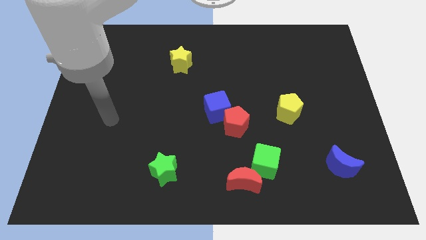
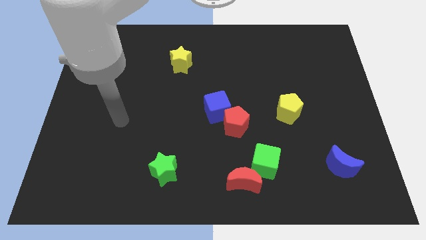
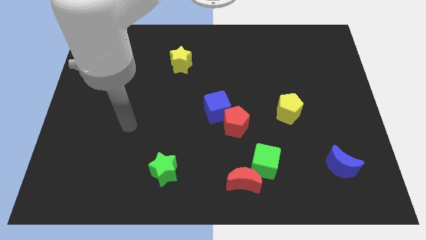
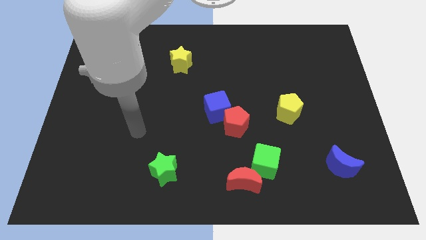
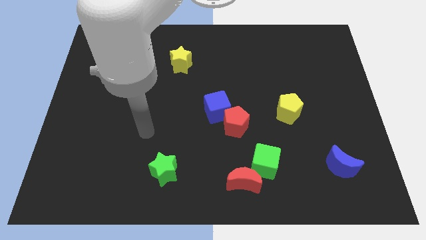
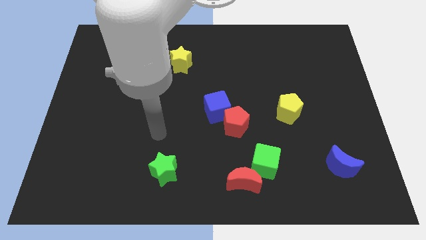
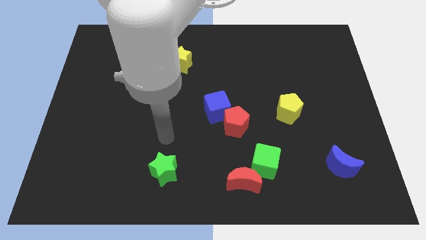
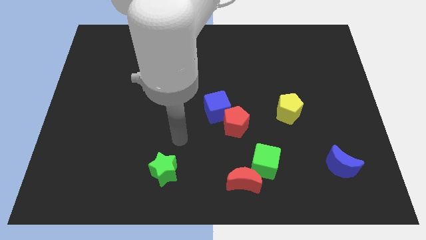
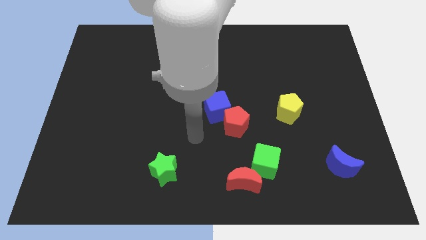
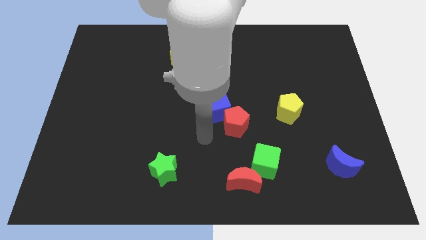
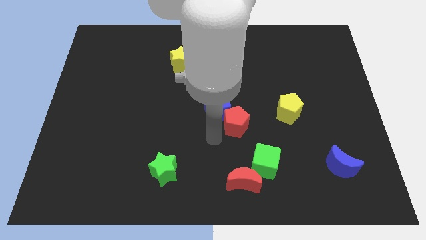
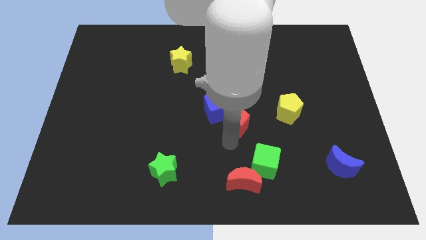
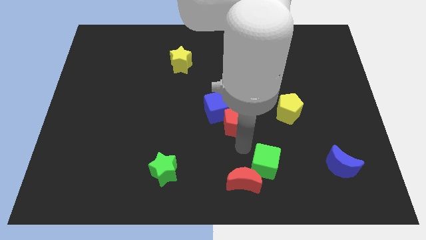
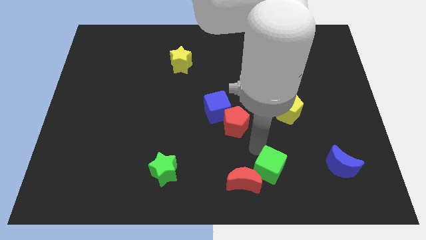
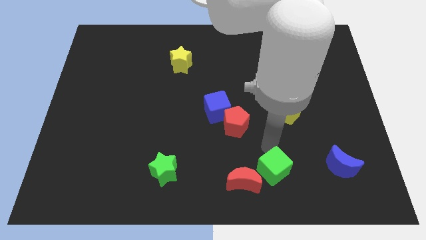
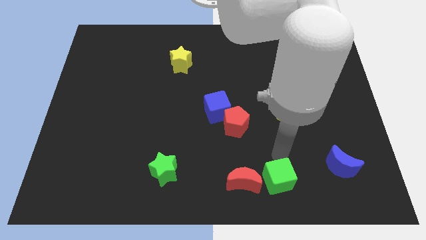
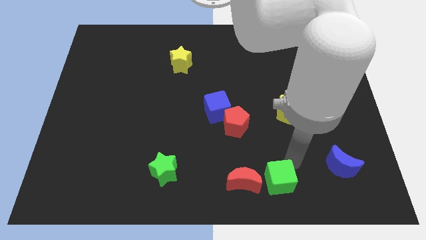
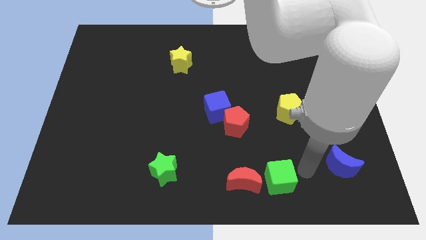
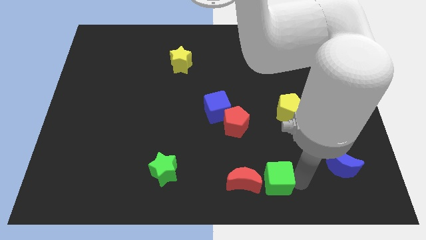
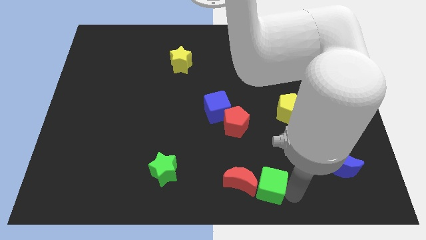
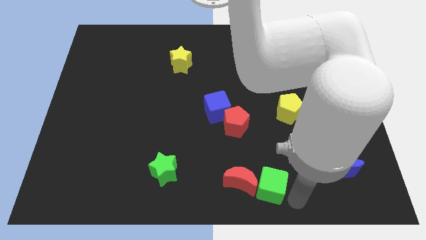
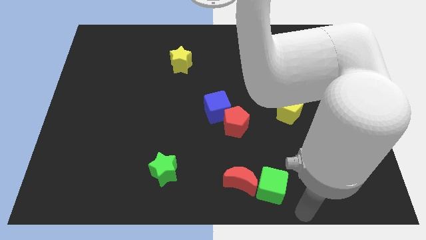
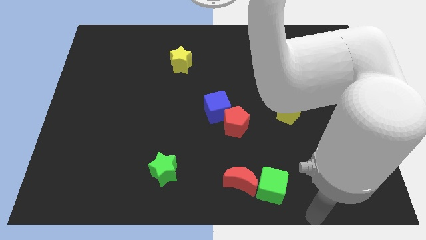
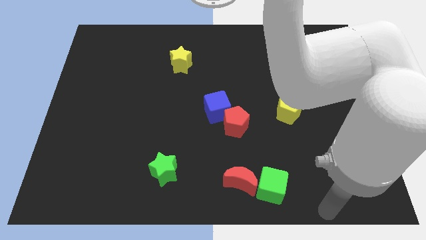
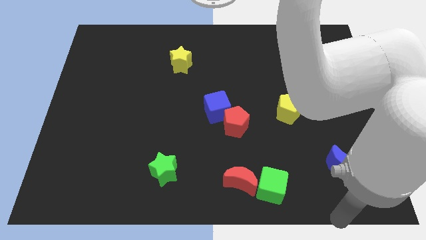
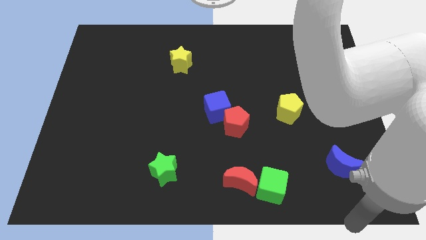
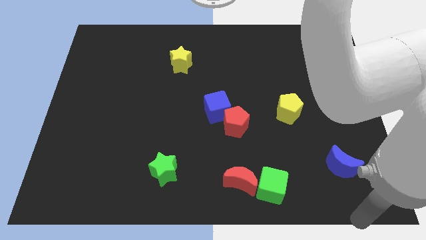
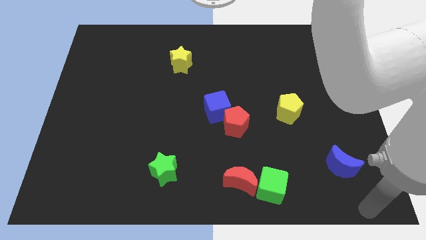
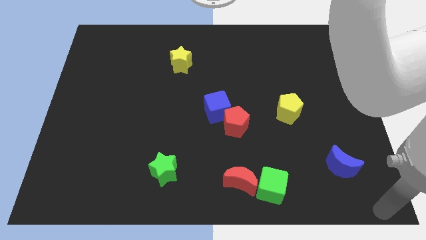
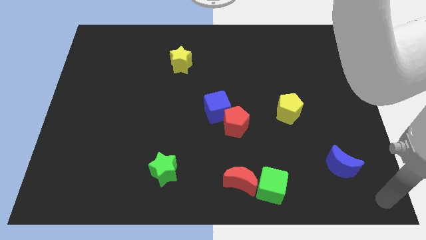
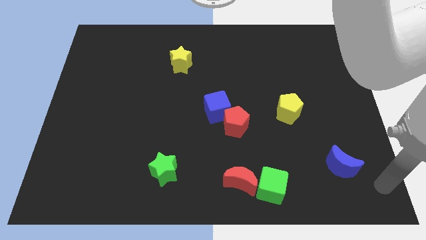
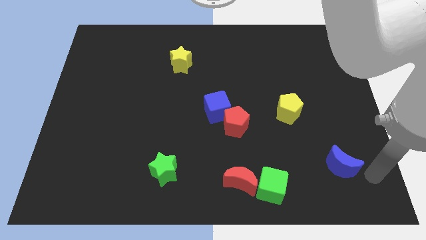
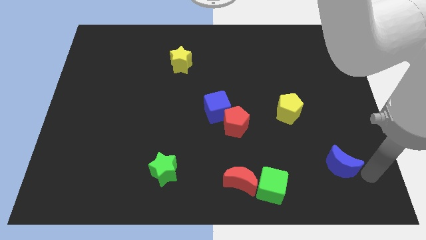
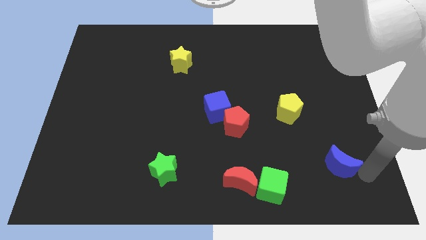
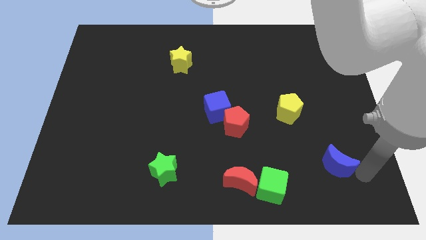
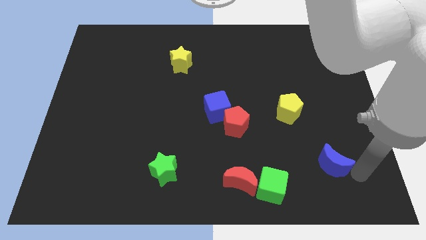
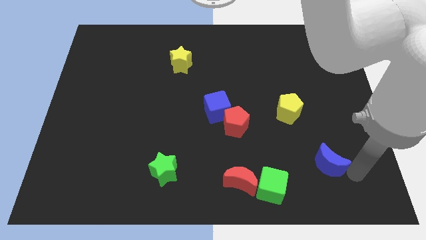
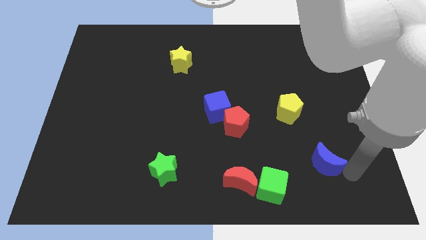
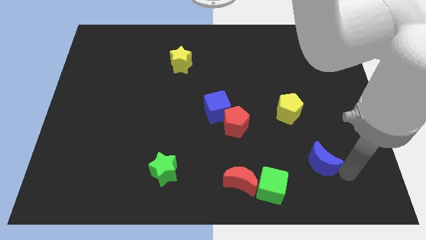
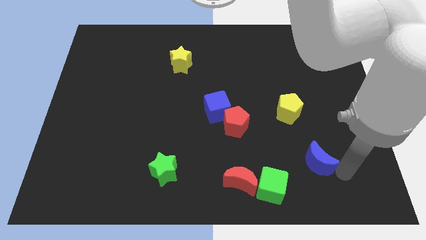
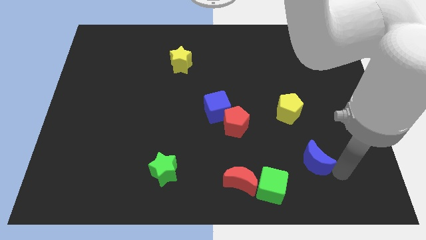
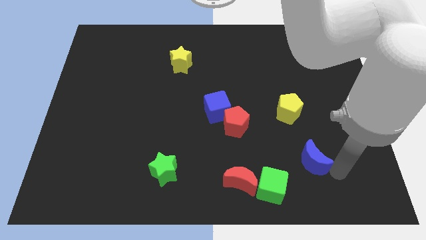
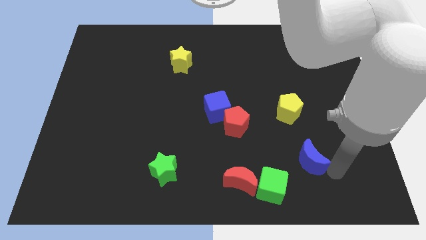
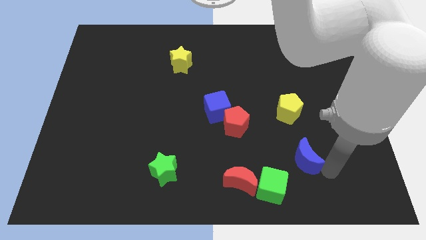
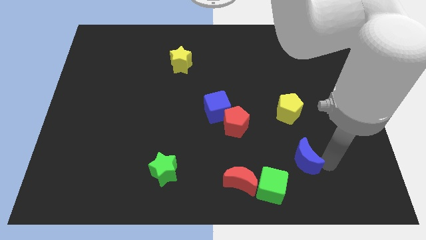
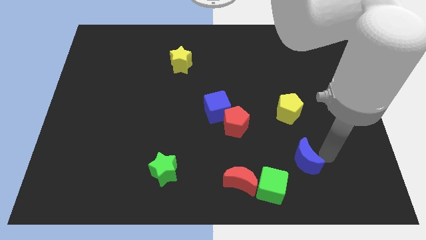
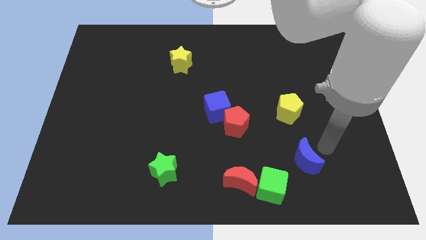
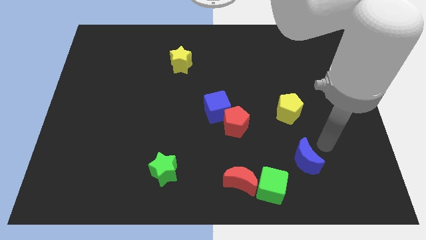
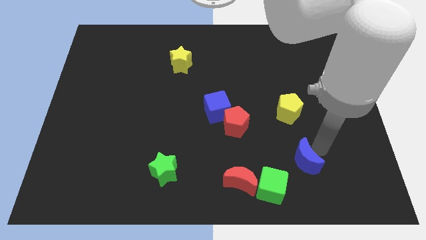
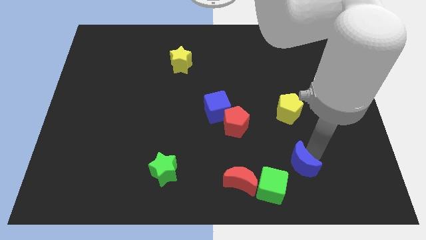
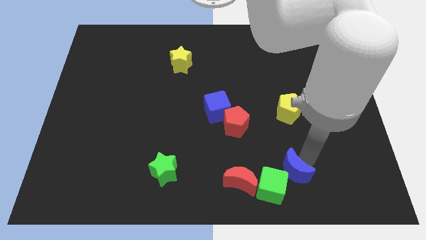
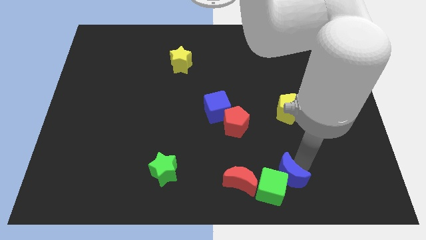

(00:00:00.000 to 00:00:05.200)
move the blue moon to the green cube

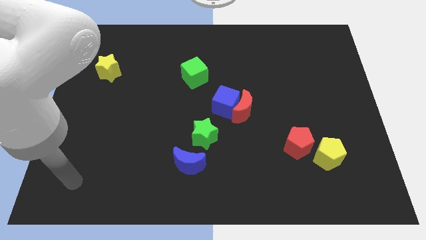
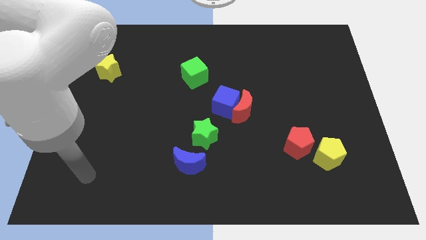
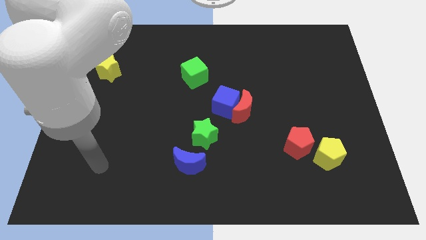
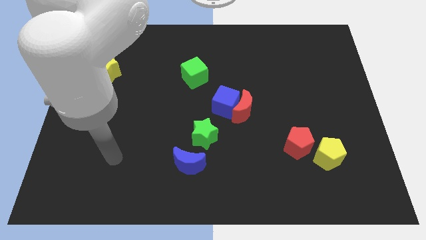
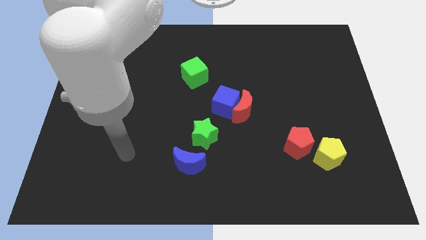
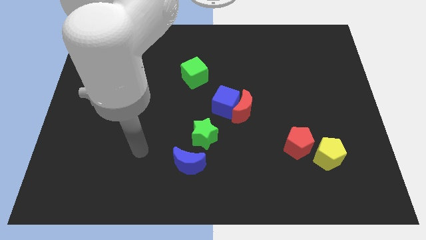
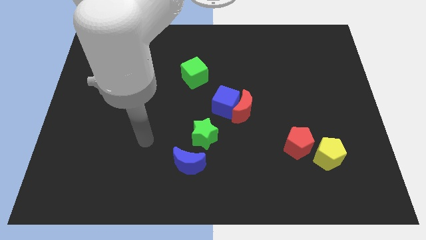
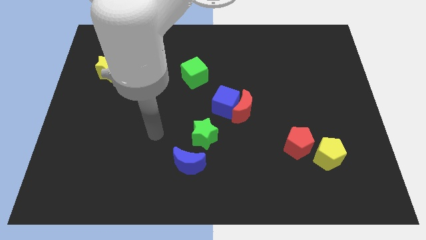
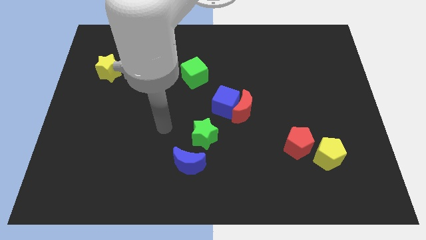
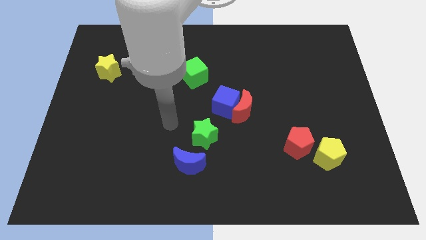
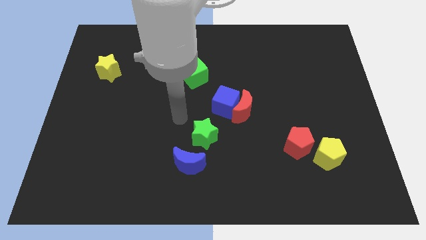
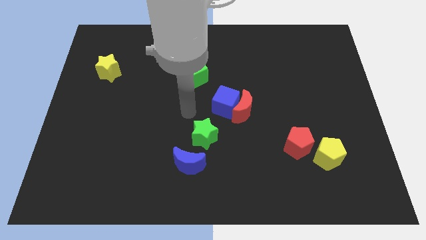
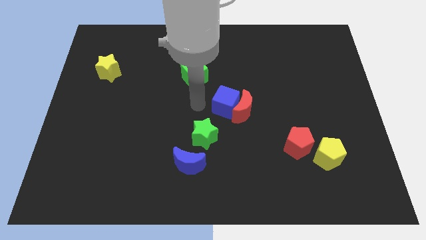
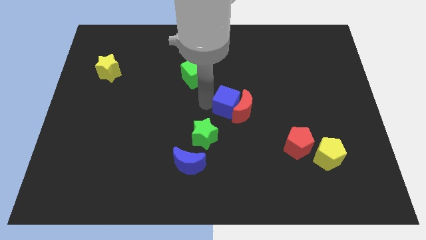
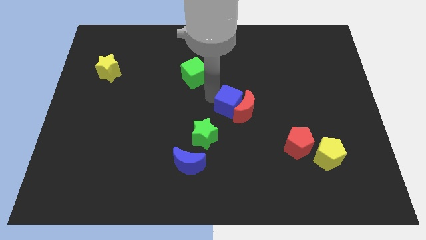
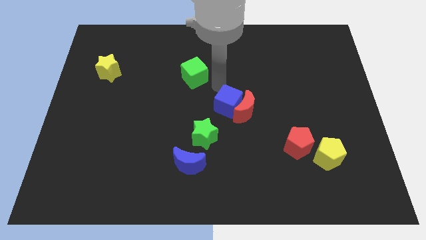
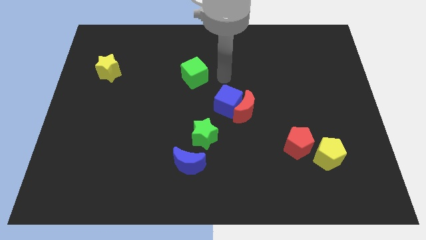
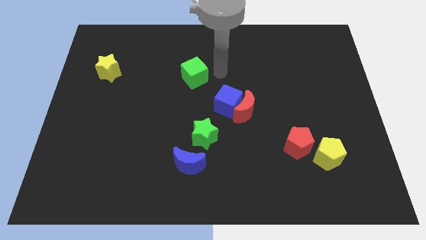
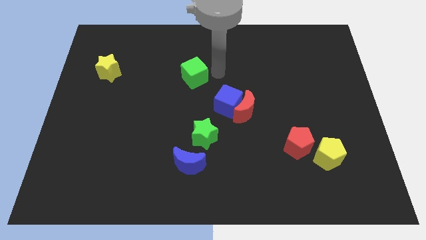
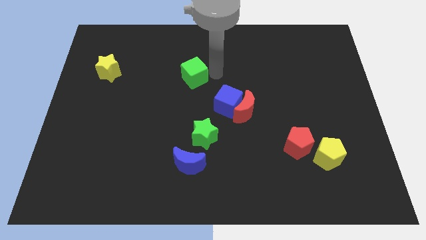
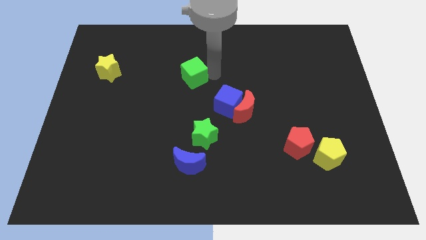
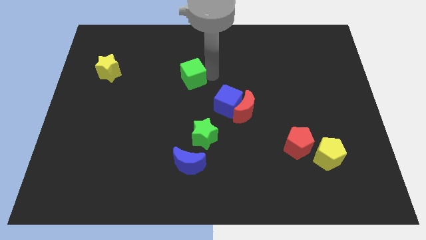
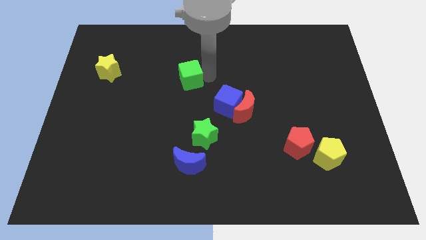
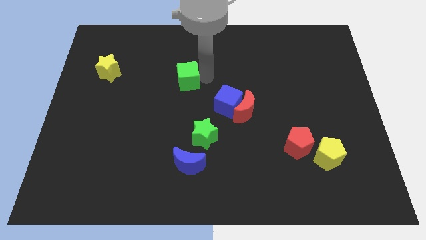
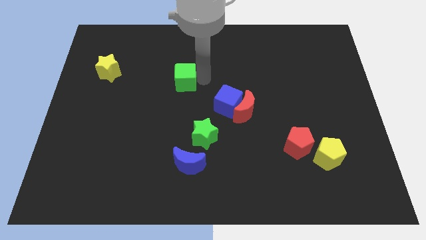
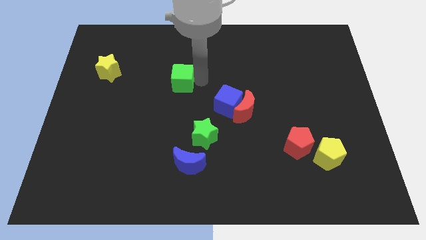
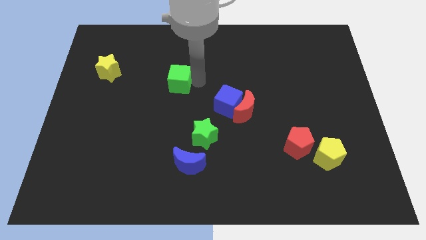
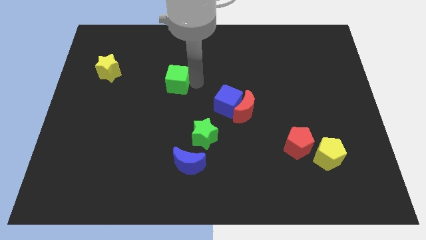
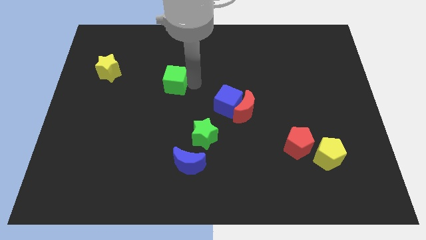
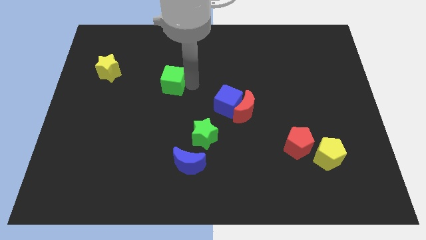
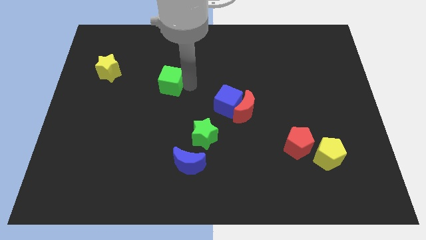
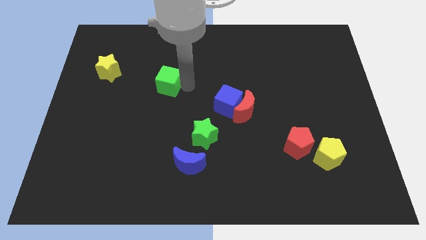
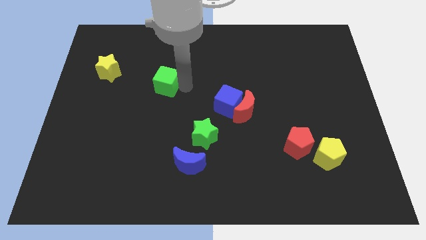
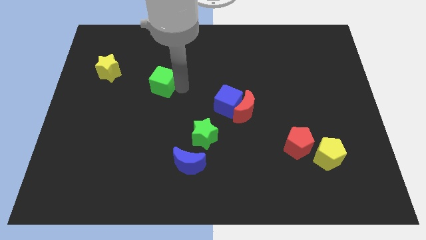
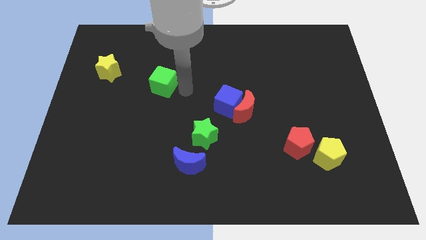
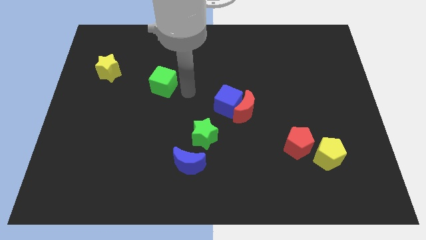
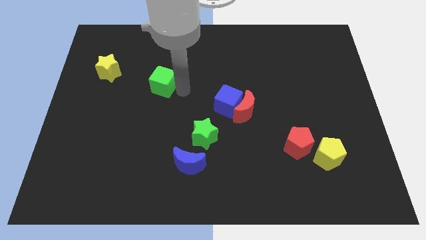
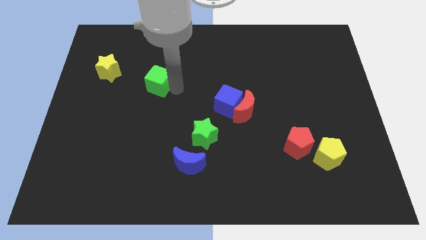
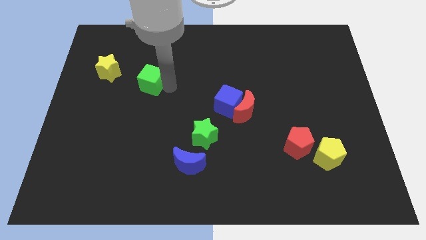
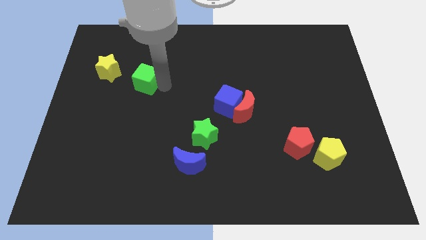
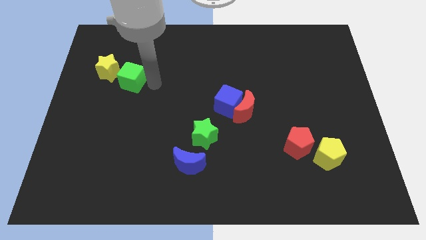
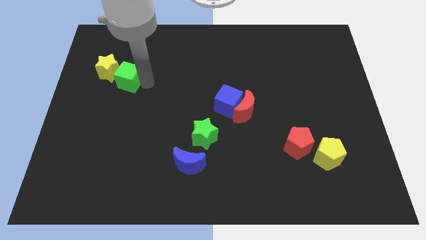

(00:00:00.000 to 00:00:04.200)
push the green cube close to the yellow star
